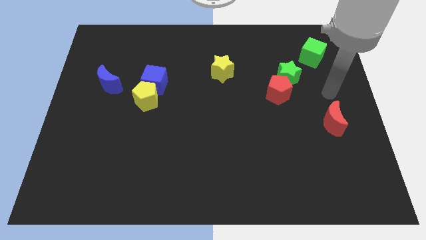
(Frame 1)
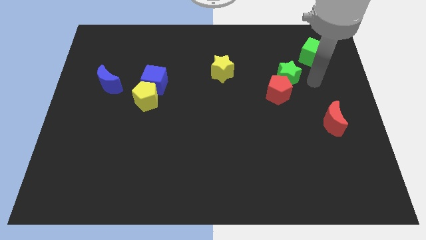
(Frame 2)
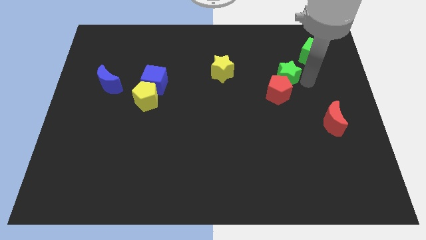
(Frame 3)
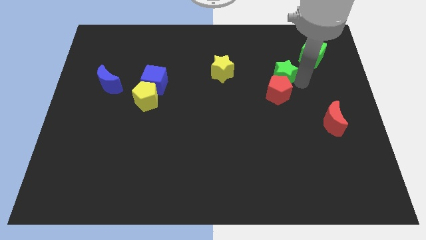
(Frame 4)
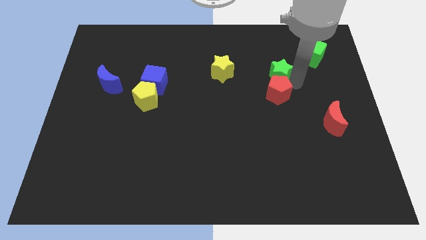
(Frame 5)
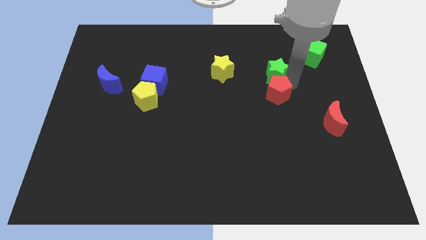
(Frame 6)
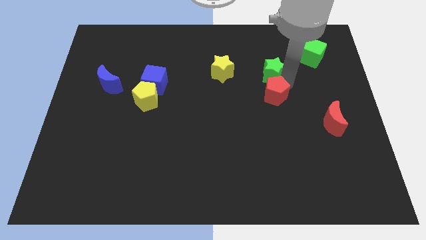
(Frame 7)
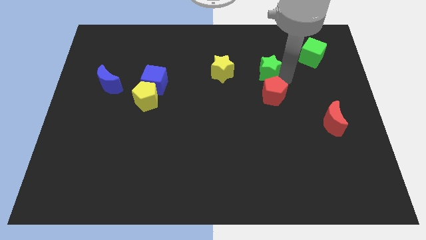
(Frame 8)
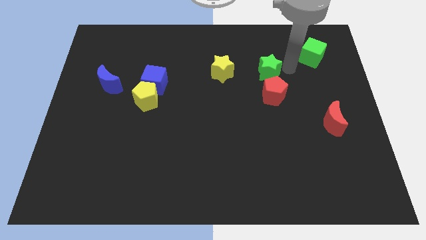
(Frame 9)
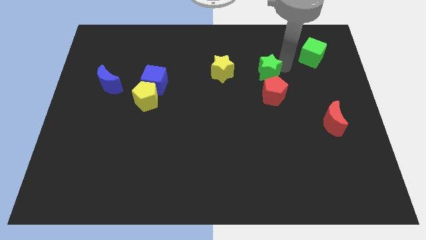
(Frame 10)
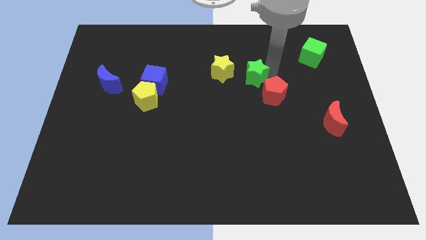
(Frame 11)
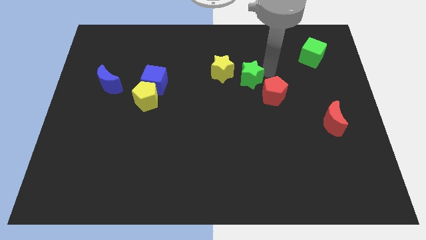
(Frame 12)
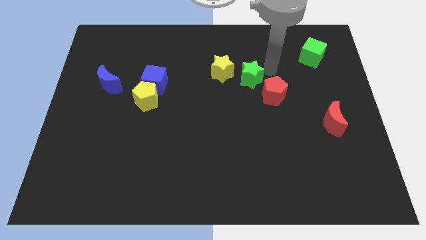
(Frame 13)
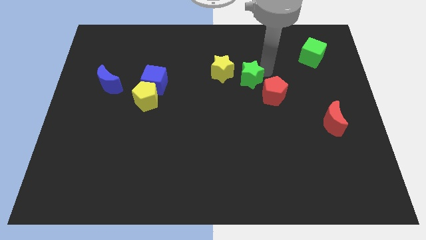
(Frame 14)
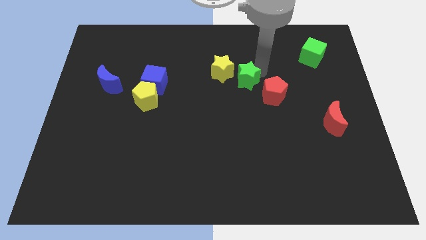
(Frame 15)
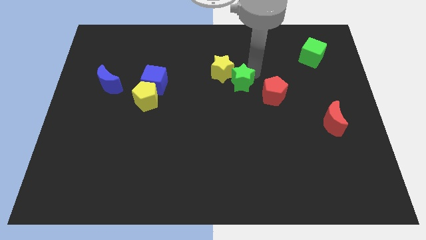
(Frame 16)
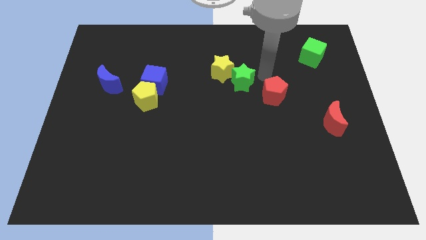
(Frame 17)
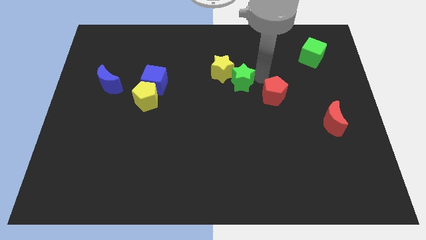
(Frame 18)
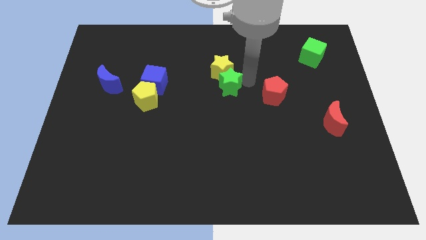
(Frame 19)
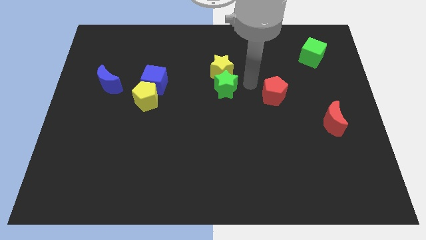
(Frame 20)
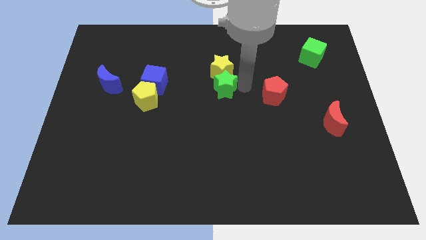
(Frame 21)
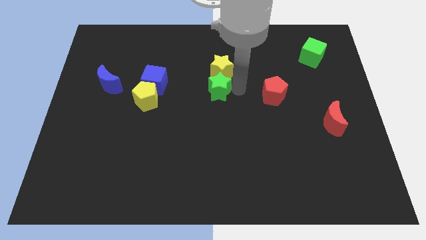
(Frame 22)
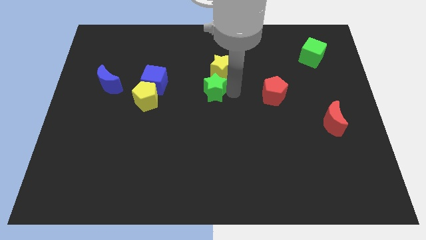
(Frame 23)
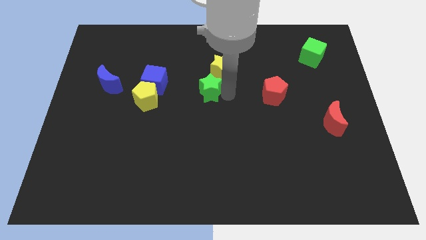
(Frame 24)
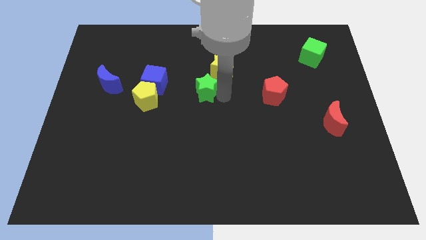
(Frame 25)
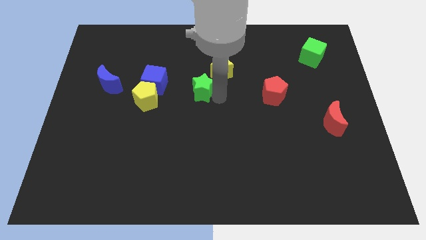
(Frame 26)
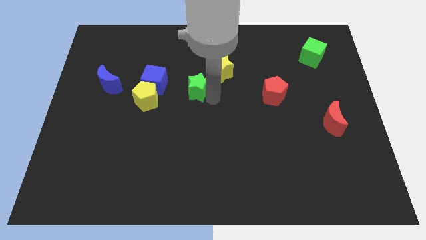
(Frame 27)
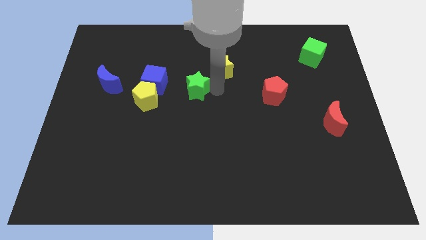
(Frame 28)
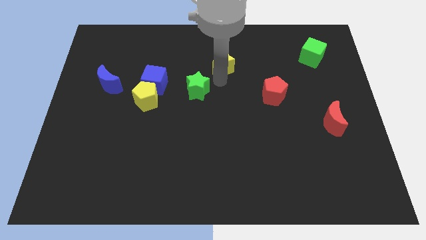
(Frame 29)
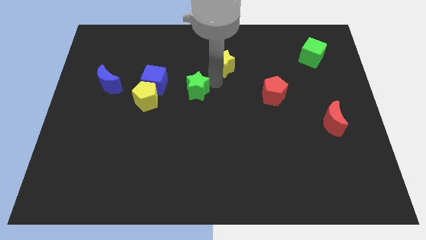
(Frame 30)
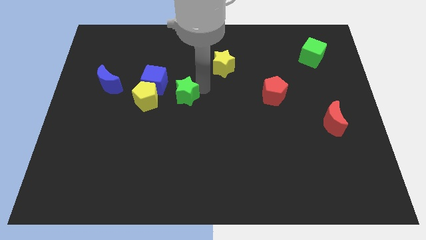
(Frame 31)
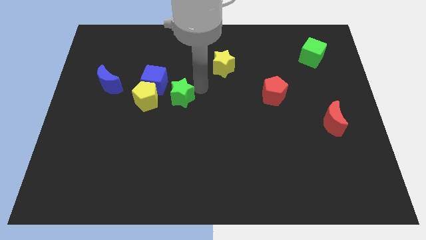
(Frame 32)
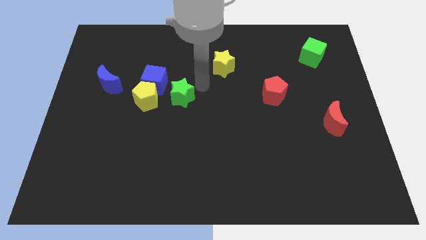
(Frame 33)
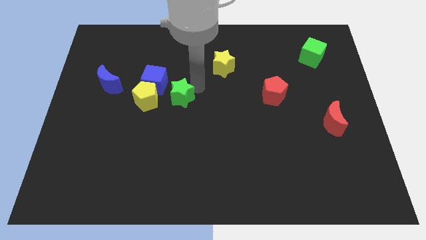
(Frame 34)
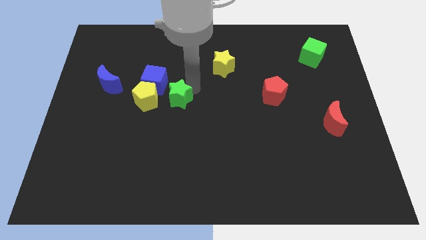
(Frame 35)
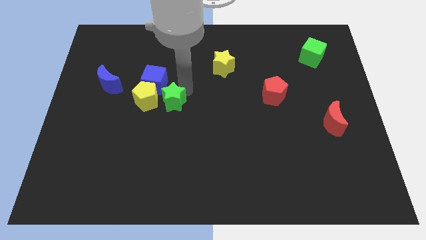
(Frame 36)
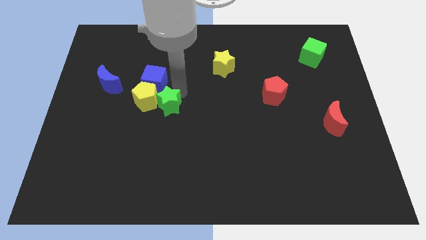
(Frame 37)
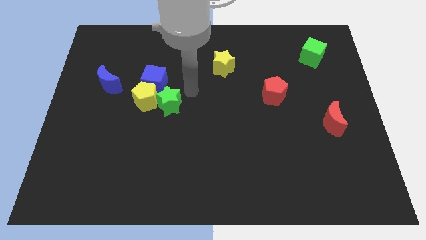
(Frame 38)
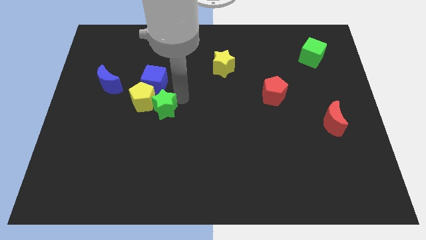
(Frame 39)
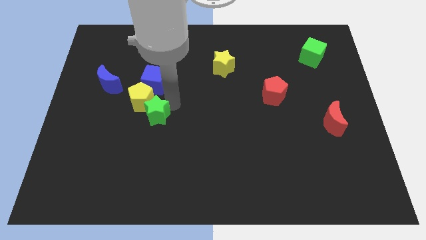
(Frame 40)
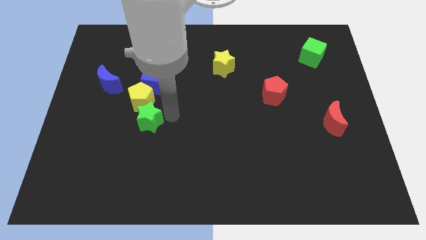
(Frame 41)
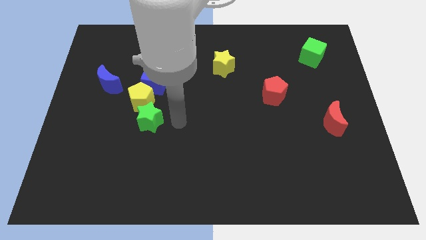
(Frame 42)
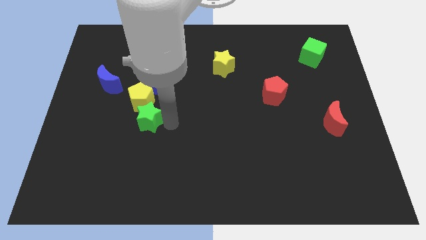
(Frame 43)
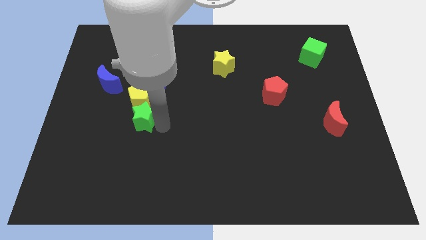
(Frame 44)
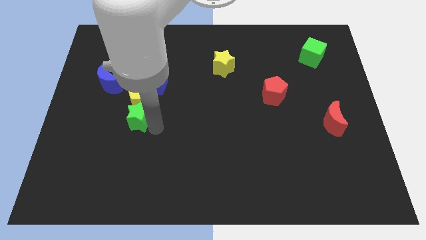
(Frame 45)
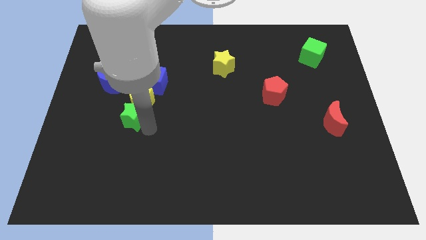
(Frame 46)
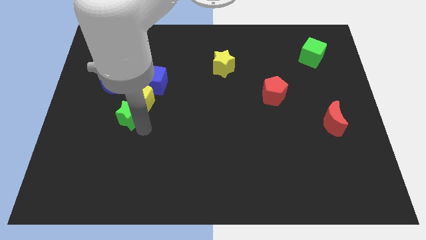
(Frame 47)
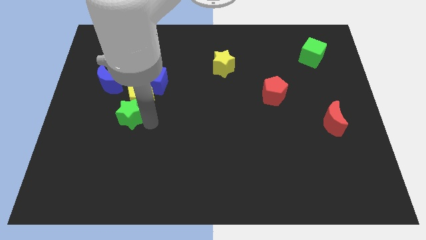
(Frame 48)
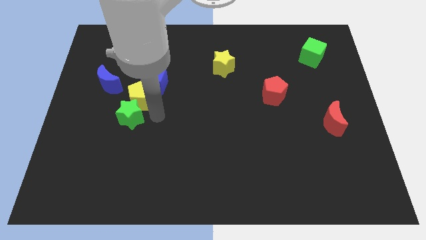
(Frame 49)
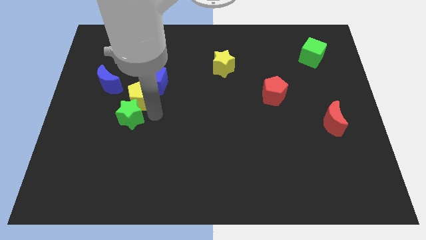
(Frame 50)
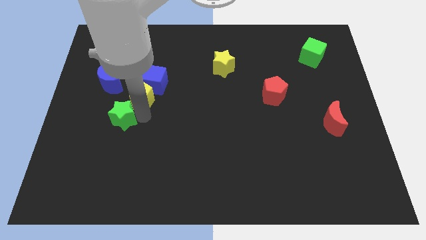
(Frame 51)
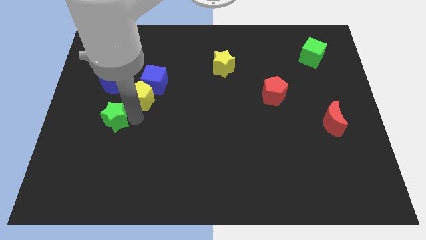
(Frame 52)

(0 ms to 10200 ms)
put the green star below the blue moon

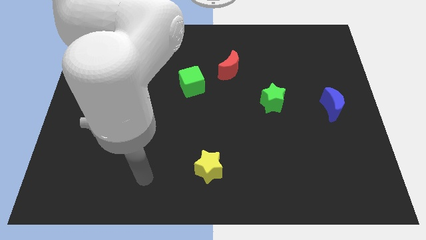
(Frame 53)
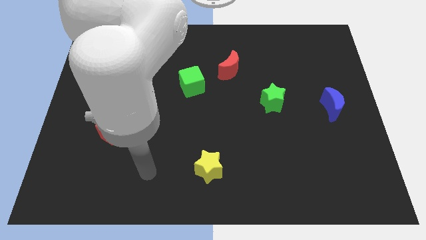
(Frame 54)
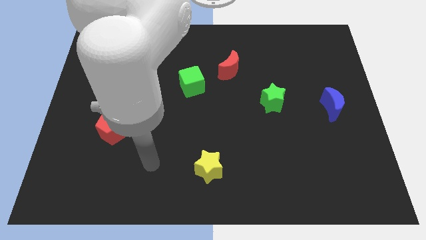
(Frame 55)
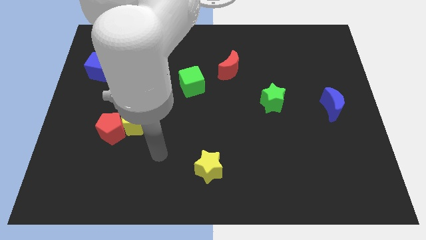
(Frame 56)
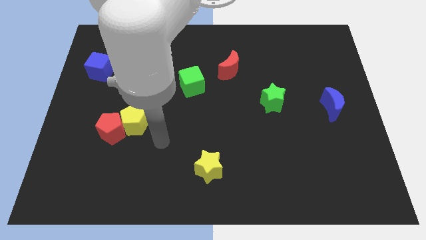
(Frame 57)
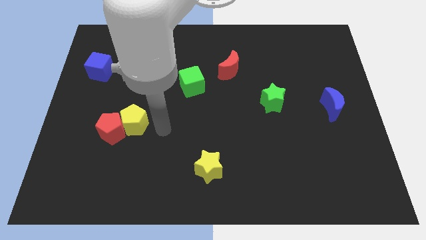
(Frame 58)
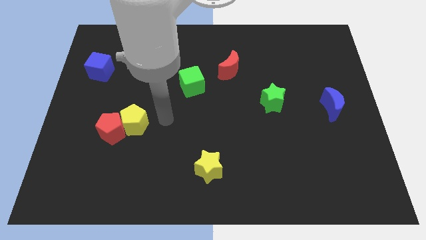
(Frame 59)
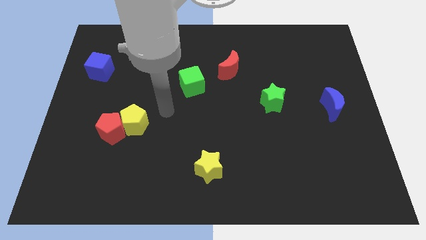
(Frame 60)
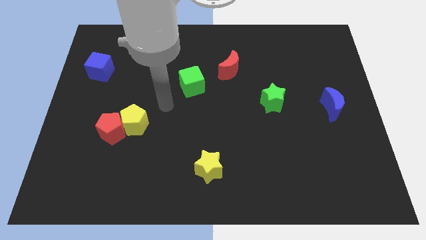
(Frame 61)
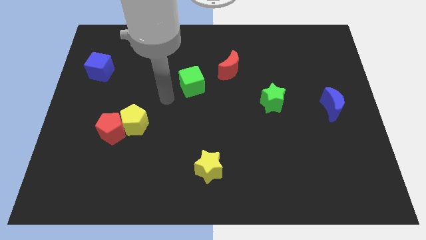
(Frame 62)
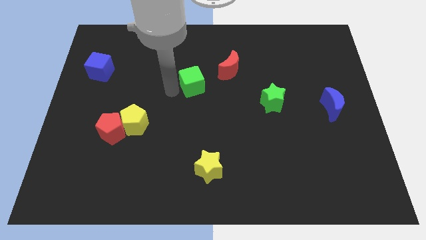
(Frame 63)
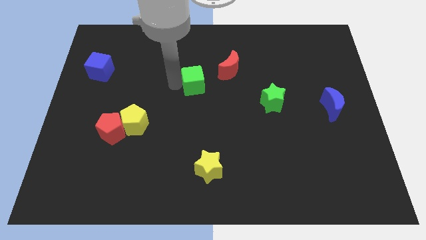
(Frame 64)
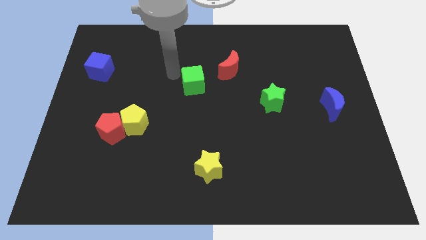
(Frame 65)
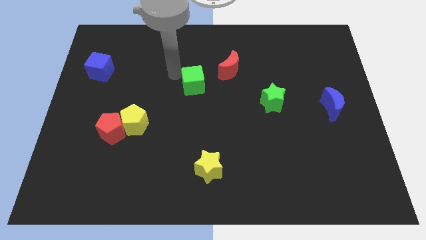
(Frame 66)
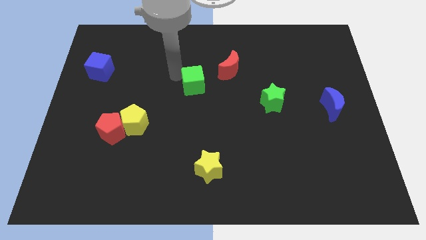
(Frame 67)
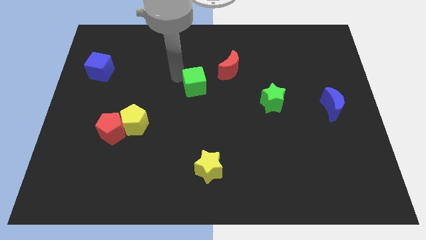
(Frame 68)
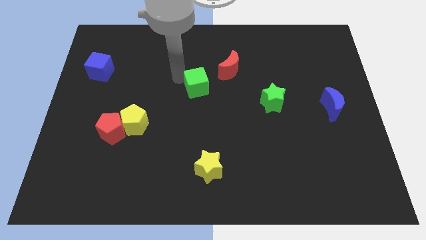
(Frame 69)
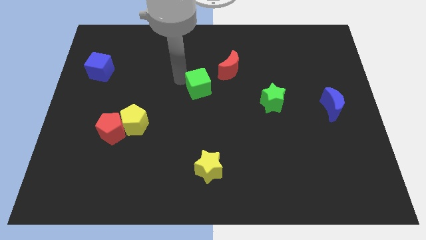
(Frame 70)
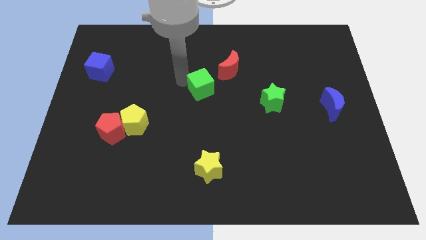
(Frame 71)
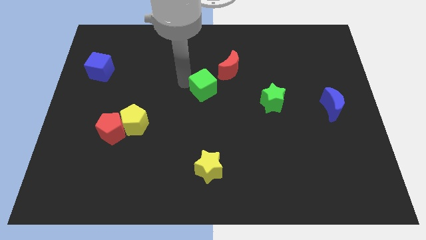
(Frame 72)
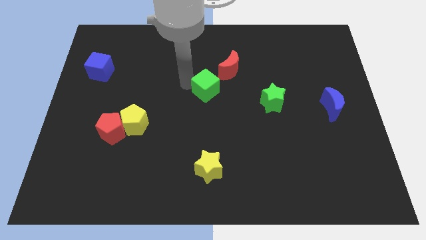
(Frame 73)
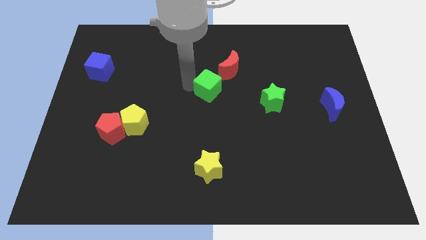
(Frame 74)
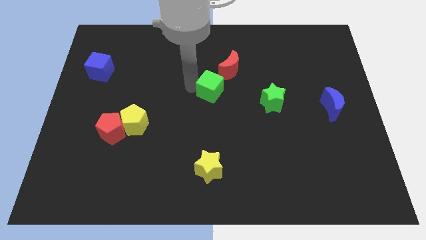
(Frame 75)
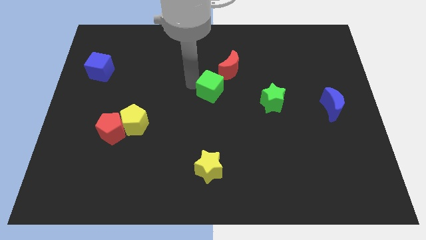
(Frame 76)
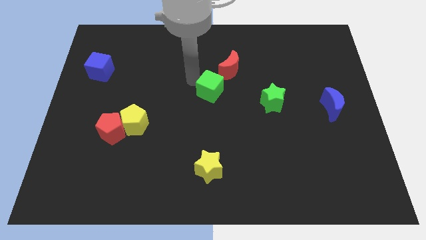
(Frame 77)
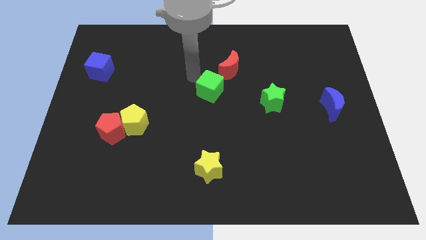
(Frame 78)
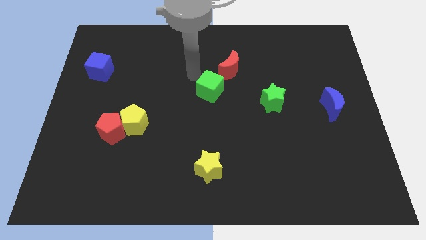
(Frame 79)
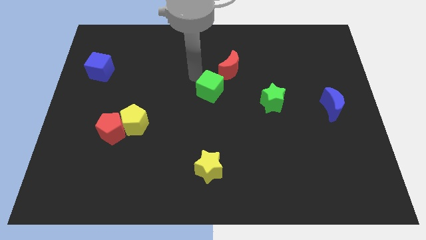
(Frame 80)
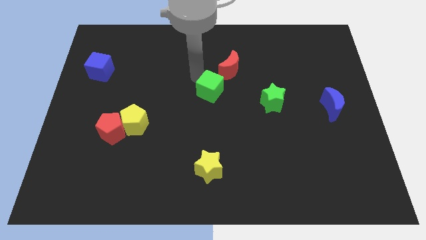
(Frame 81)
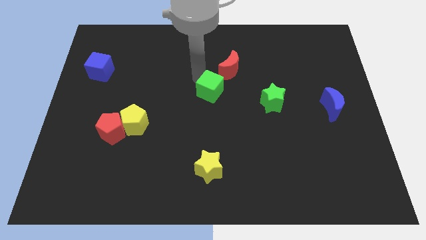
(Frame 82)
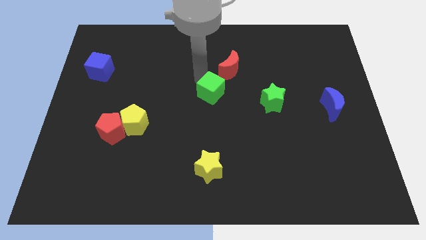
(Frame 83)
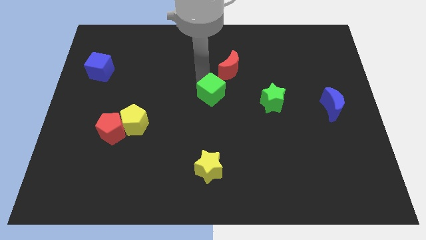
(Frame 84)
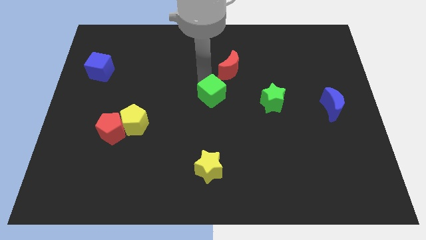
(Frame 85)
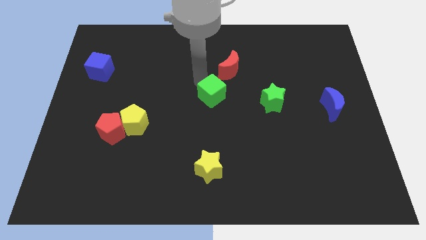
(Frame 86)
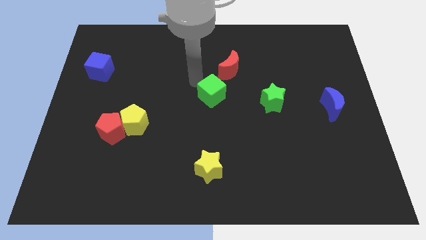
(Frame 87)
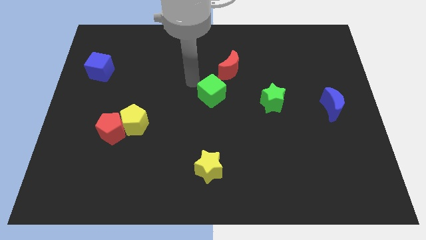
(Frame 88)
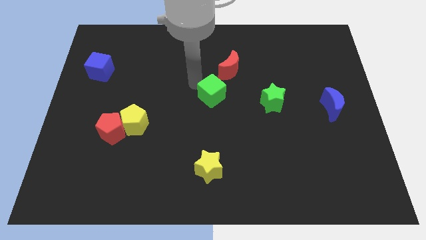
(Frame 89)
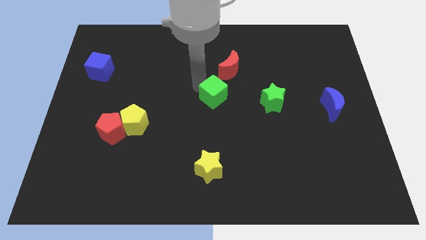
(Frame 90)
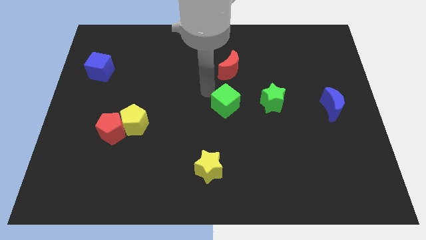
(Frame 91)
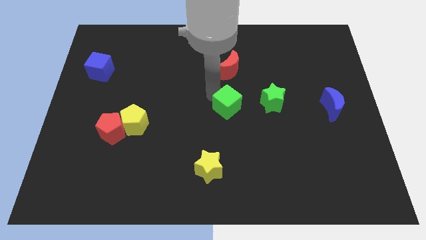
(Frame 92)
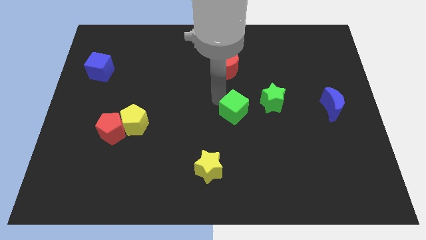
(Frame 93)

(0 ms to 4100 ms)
push the green cube to the bottom left of the green star
